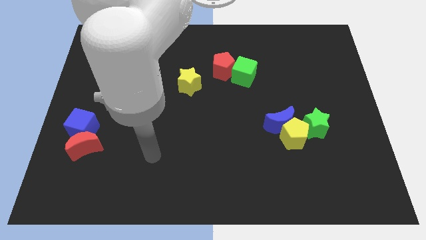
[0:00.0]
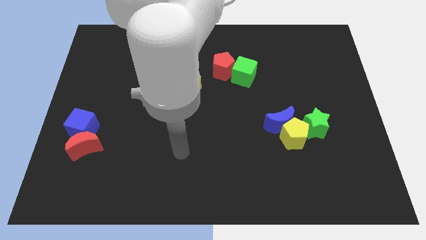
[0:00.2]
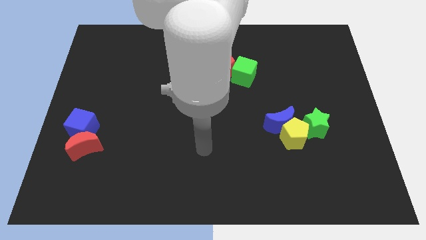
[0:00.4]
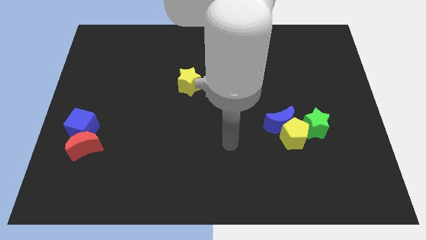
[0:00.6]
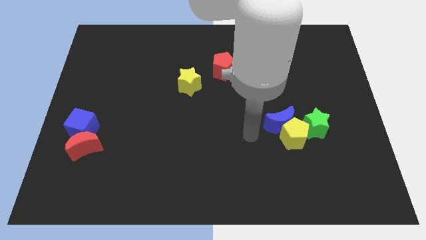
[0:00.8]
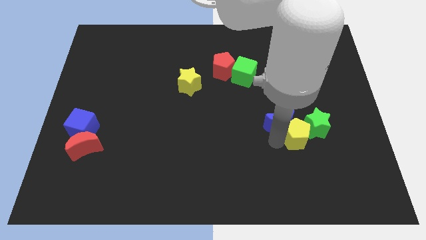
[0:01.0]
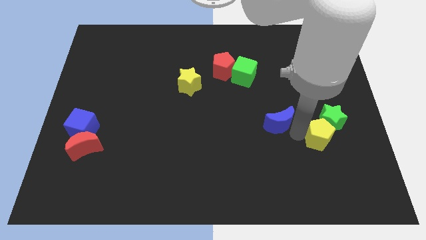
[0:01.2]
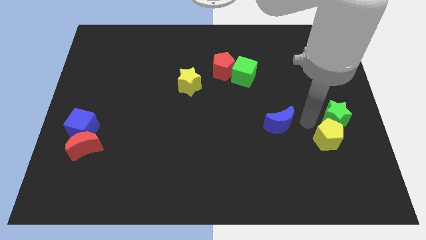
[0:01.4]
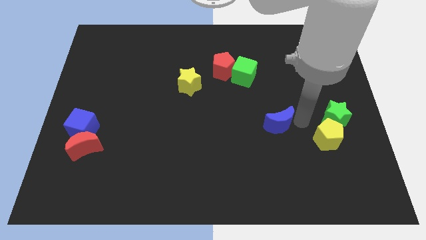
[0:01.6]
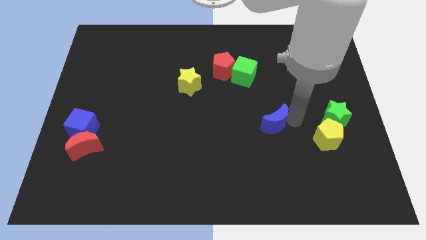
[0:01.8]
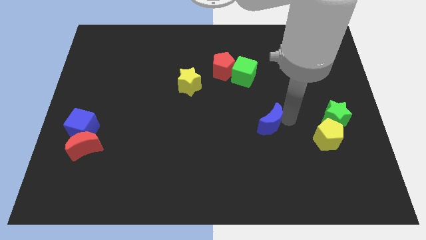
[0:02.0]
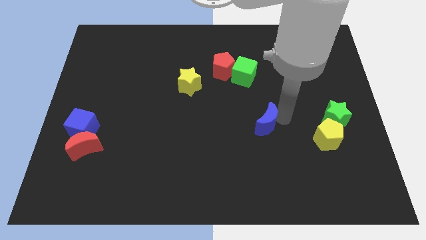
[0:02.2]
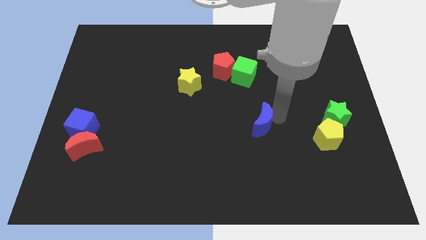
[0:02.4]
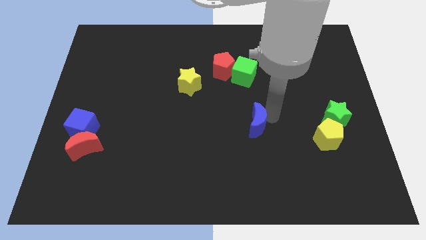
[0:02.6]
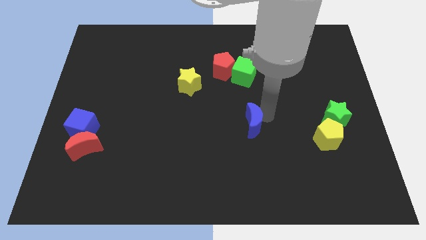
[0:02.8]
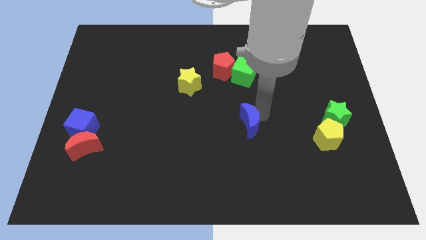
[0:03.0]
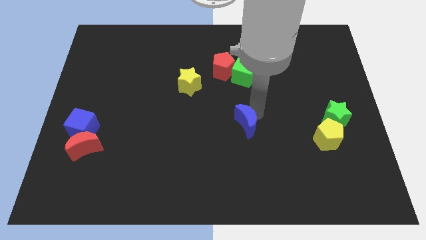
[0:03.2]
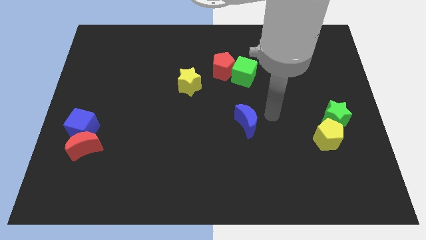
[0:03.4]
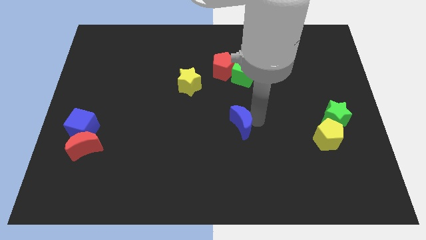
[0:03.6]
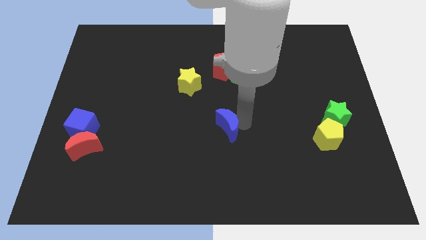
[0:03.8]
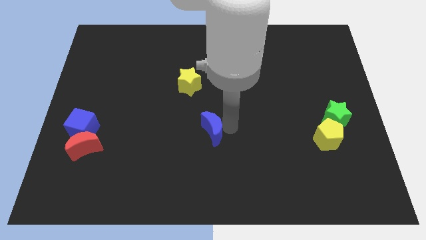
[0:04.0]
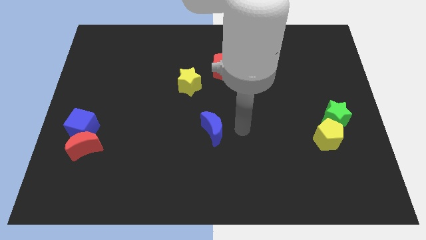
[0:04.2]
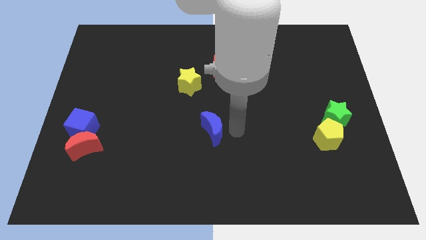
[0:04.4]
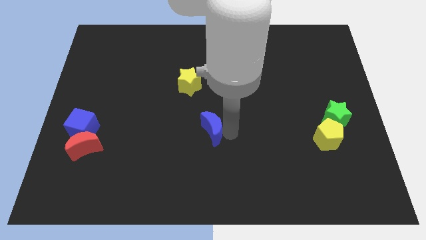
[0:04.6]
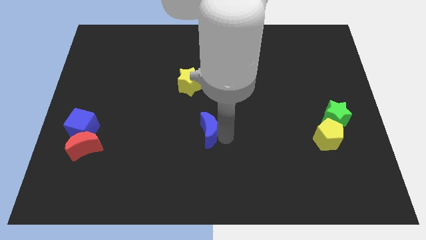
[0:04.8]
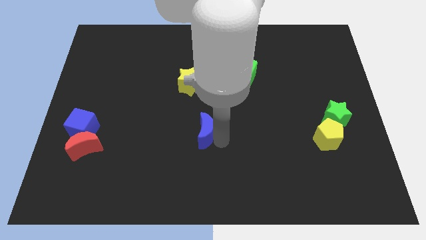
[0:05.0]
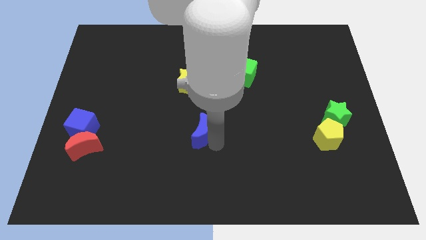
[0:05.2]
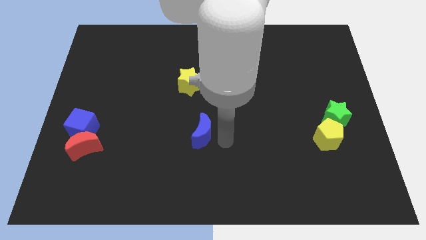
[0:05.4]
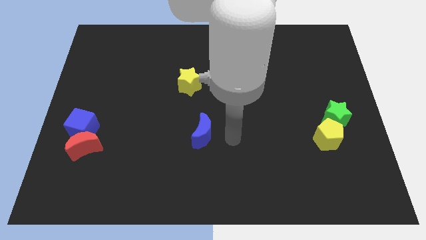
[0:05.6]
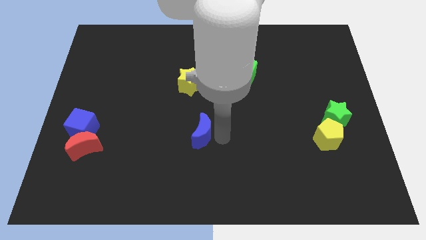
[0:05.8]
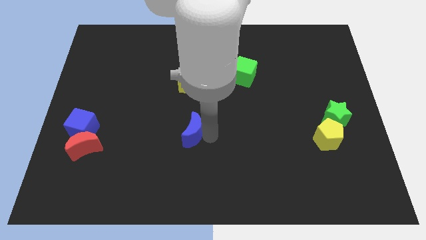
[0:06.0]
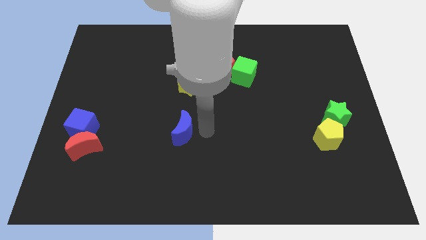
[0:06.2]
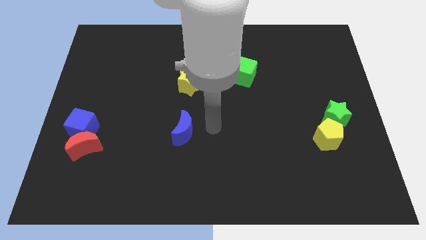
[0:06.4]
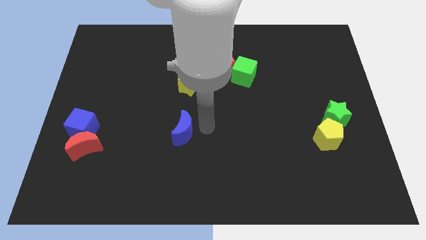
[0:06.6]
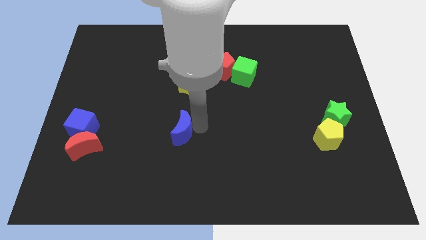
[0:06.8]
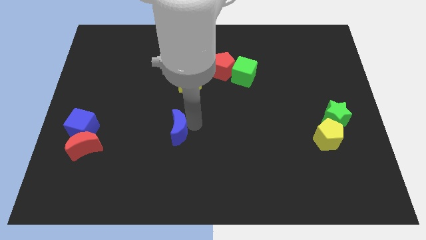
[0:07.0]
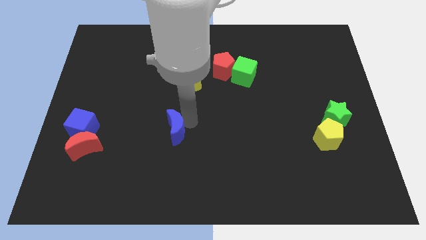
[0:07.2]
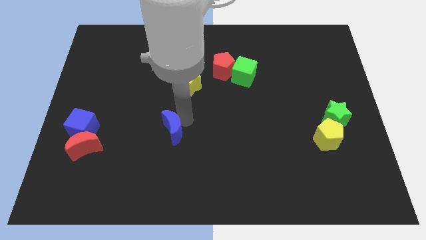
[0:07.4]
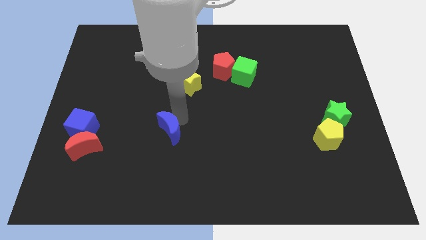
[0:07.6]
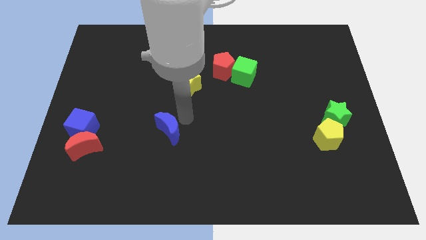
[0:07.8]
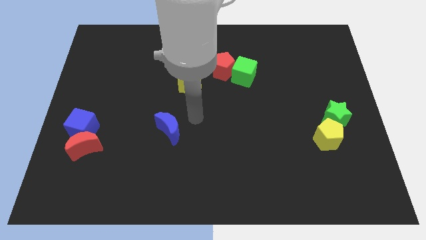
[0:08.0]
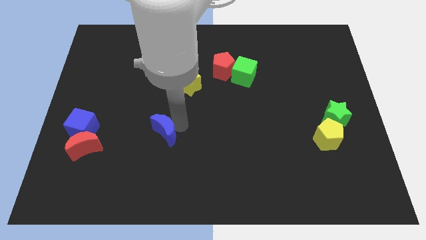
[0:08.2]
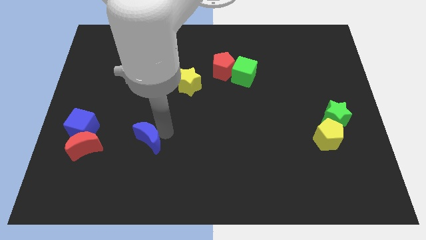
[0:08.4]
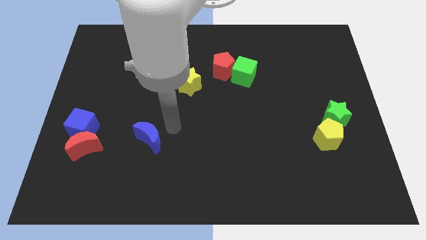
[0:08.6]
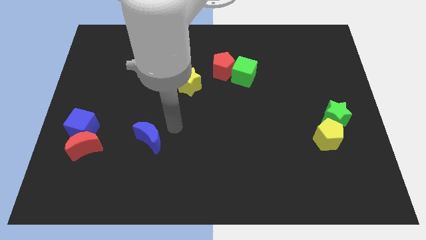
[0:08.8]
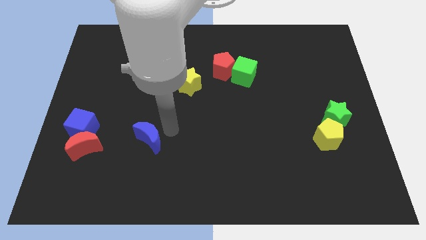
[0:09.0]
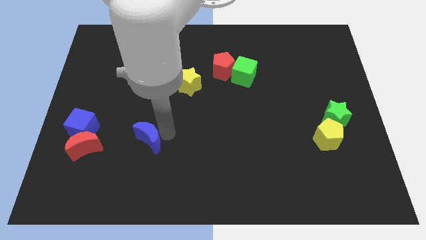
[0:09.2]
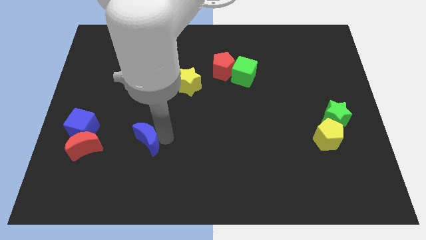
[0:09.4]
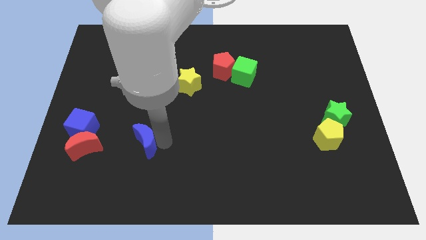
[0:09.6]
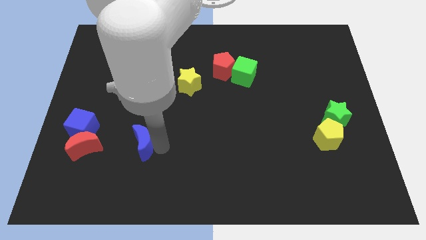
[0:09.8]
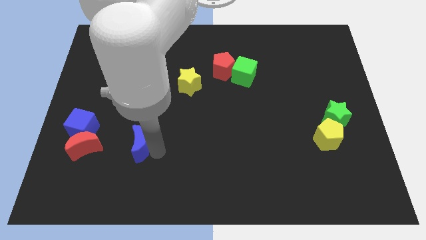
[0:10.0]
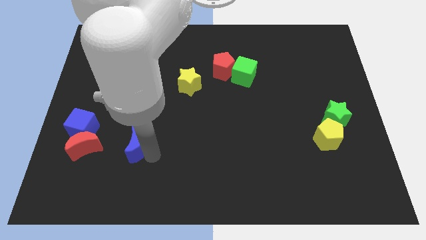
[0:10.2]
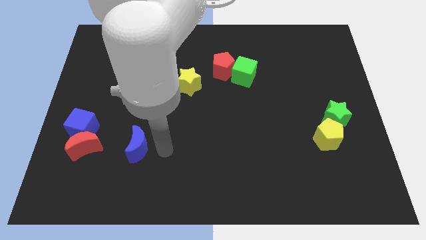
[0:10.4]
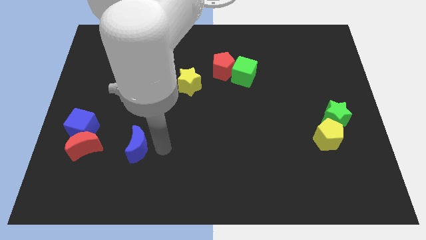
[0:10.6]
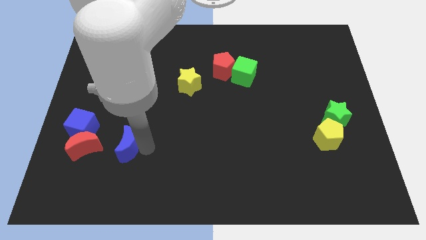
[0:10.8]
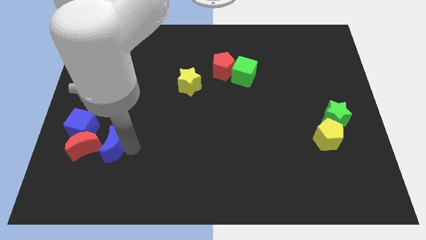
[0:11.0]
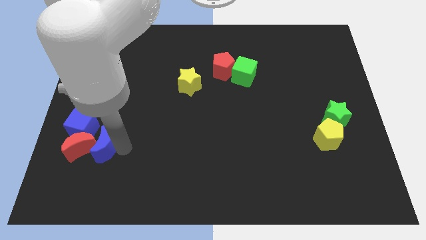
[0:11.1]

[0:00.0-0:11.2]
slide the blue moon close to the red moon

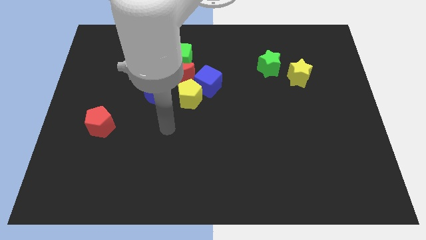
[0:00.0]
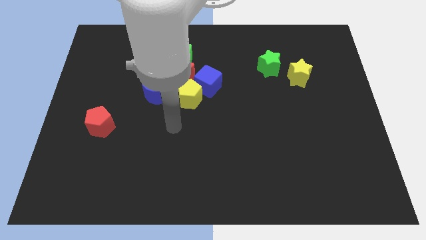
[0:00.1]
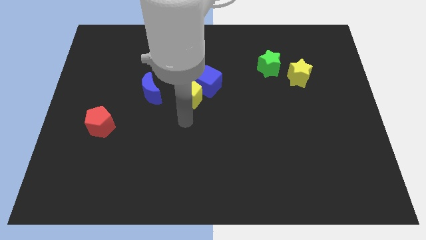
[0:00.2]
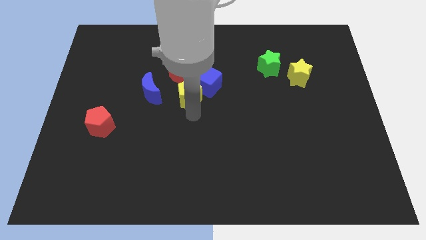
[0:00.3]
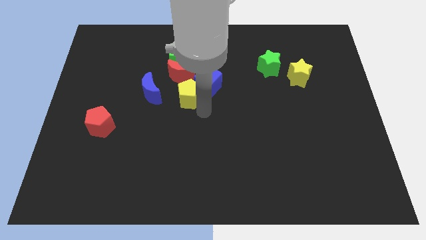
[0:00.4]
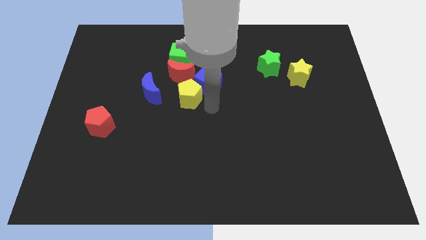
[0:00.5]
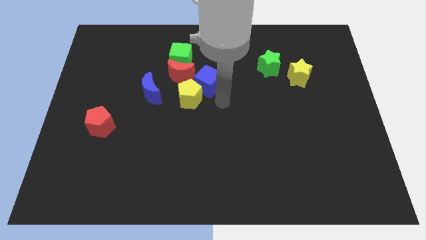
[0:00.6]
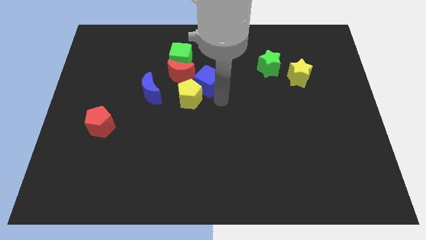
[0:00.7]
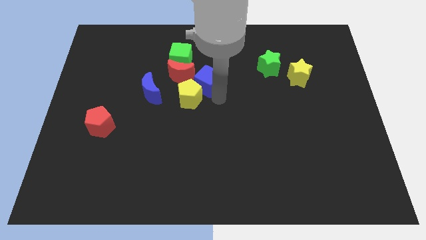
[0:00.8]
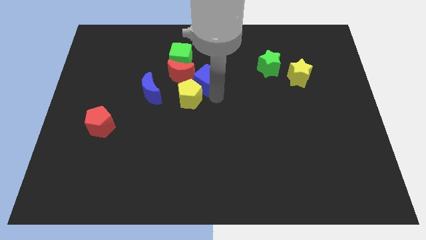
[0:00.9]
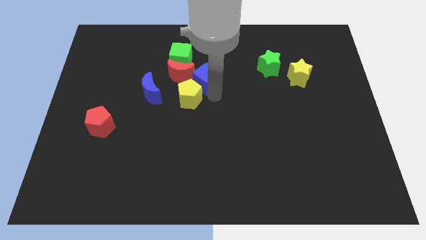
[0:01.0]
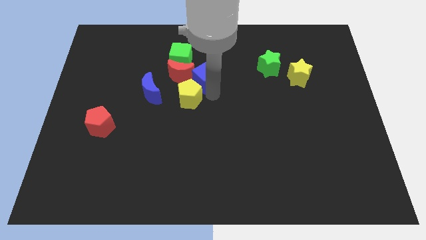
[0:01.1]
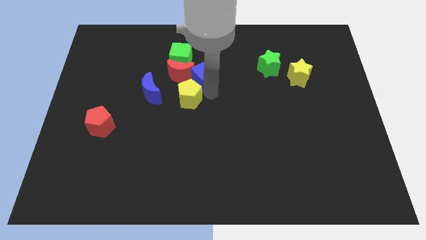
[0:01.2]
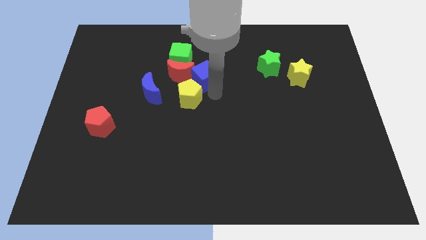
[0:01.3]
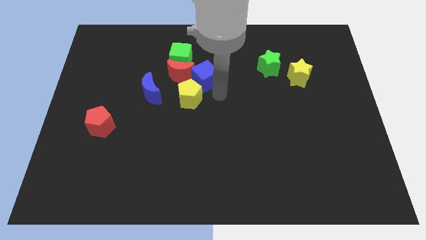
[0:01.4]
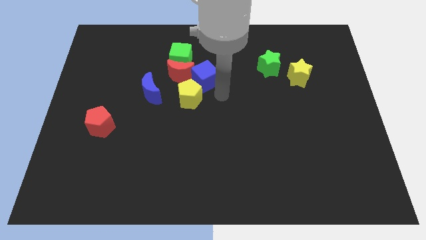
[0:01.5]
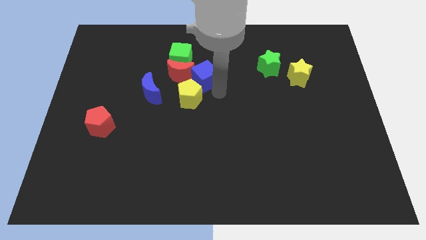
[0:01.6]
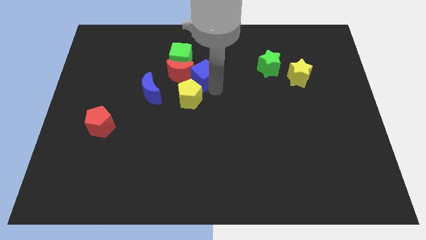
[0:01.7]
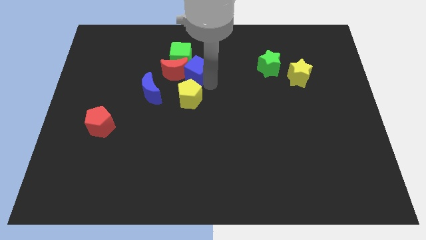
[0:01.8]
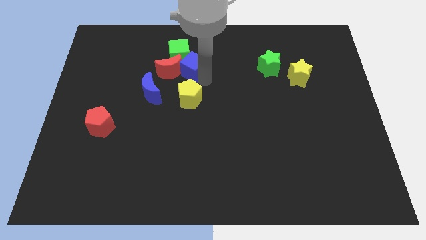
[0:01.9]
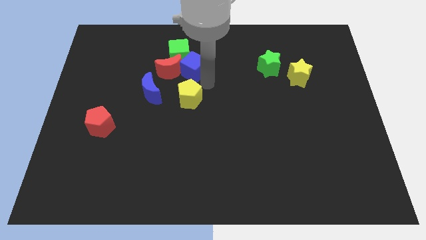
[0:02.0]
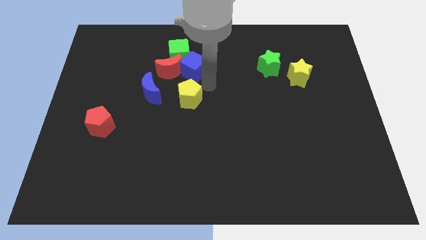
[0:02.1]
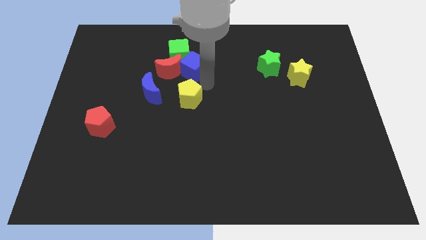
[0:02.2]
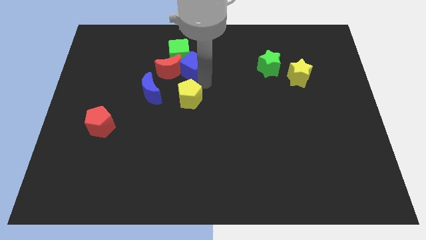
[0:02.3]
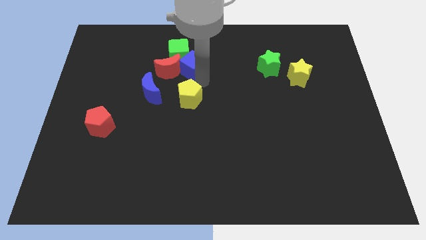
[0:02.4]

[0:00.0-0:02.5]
push the blue cube to the green cube
